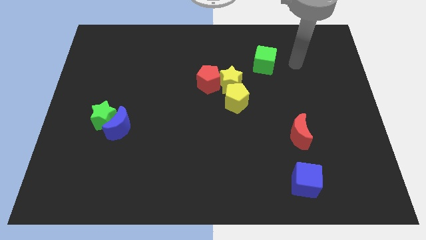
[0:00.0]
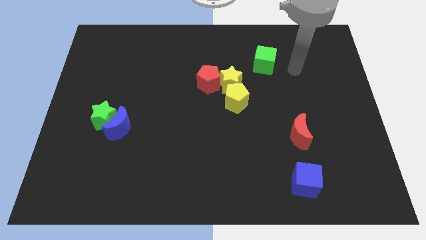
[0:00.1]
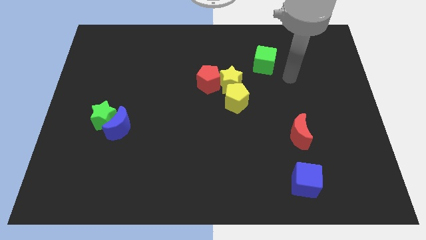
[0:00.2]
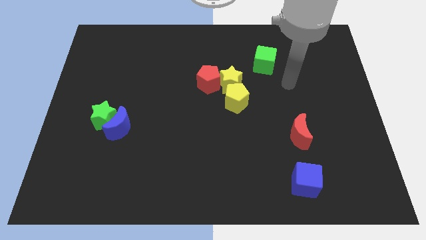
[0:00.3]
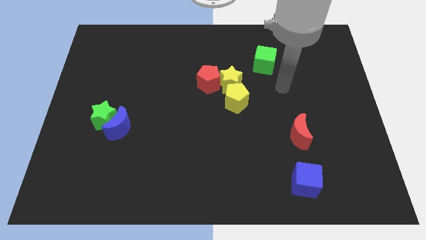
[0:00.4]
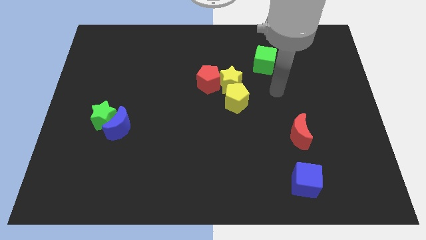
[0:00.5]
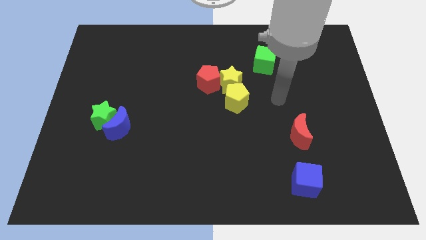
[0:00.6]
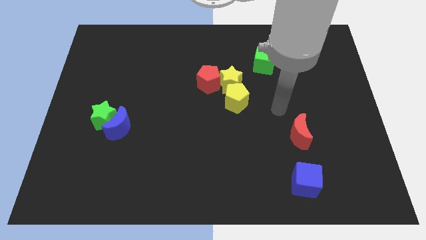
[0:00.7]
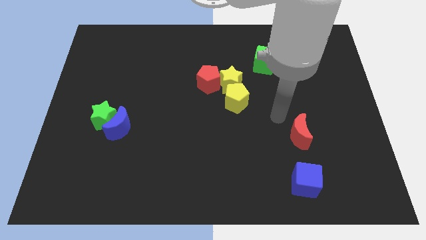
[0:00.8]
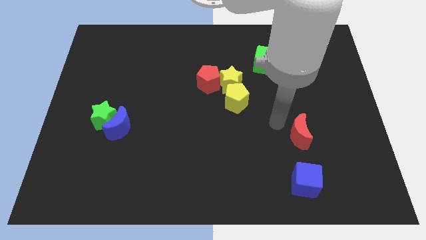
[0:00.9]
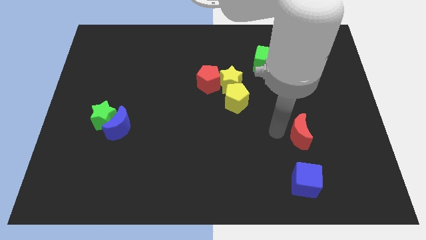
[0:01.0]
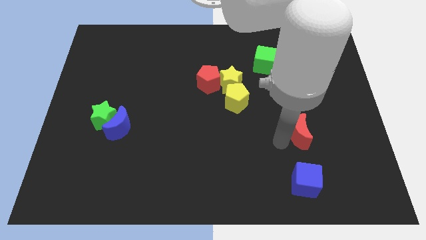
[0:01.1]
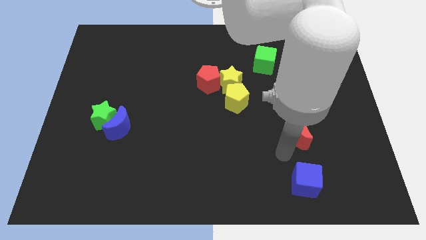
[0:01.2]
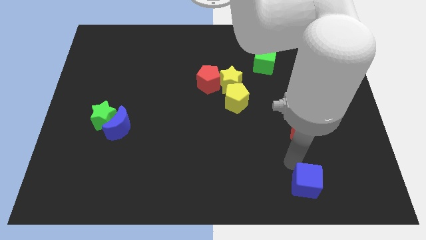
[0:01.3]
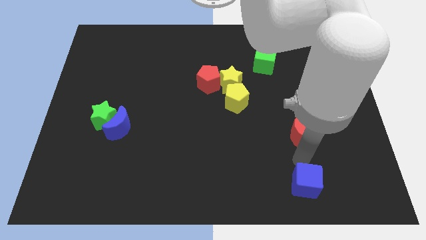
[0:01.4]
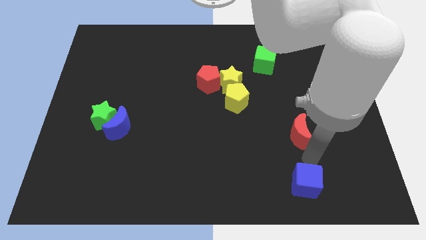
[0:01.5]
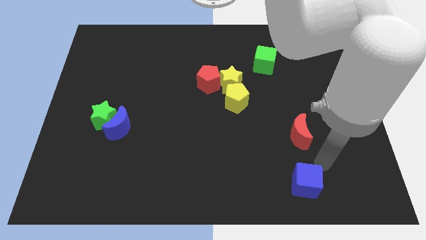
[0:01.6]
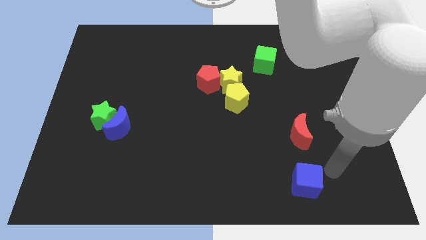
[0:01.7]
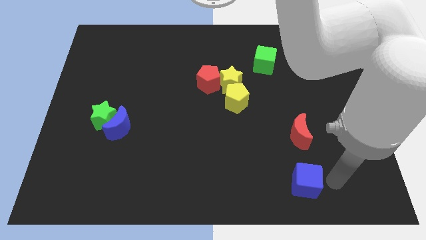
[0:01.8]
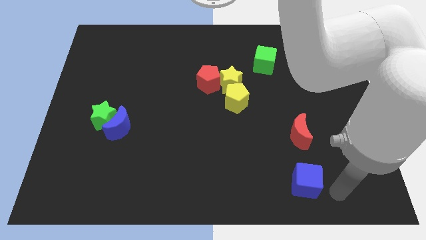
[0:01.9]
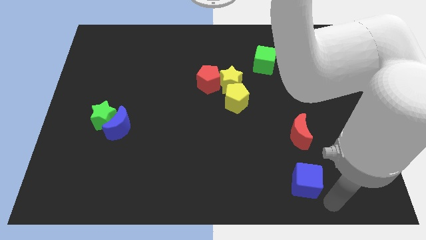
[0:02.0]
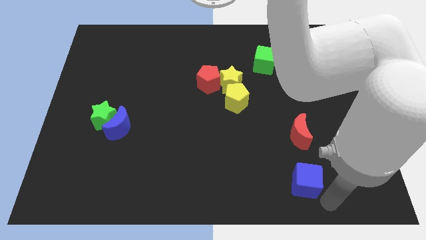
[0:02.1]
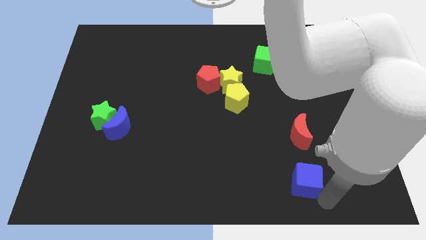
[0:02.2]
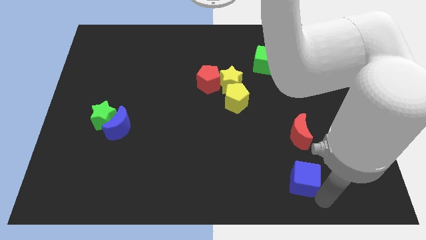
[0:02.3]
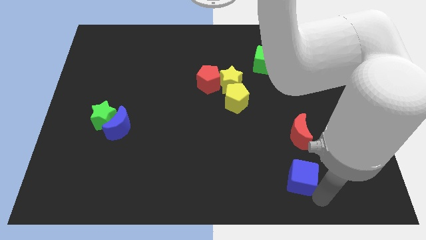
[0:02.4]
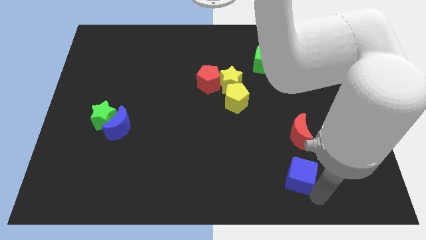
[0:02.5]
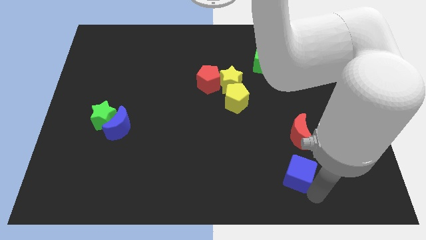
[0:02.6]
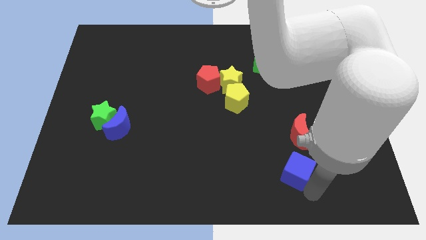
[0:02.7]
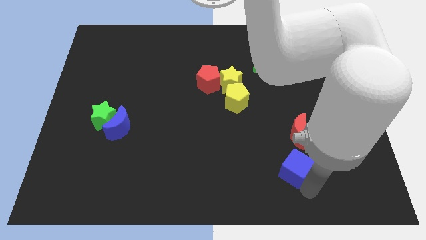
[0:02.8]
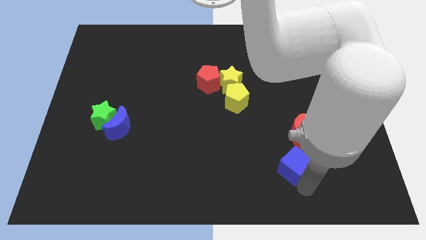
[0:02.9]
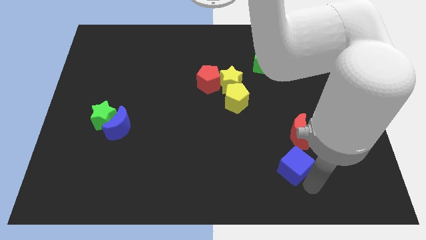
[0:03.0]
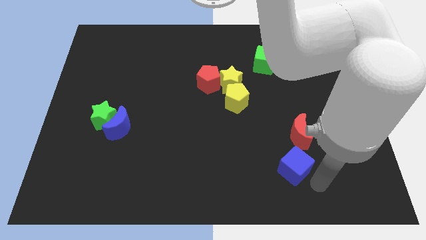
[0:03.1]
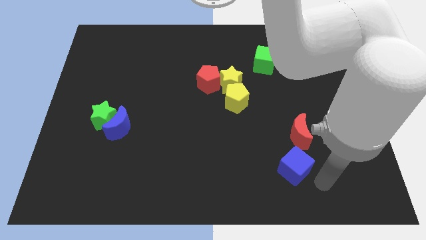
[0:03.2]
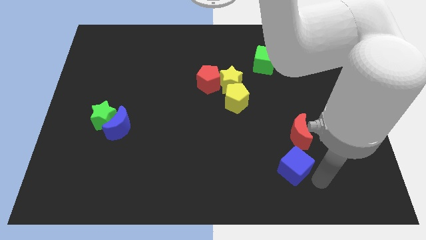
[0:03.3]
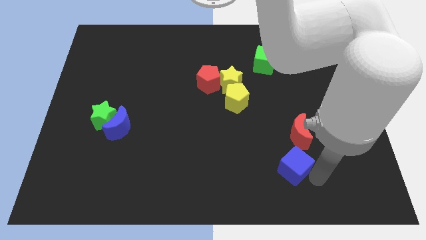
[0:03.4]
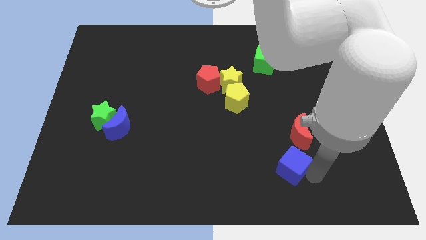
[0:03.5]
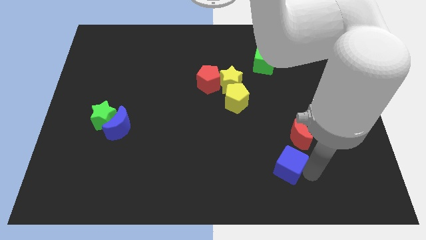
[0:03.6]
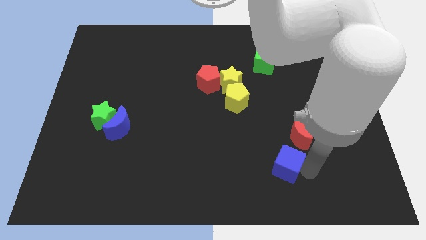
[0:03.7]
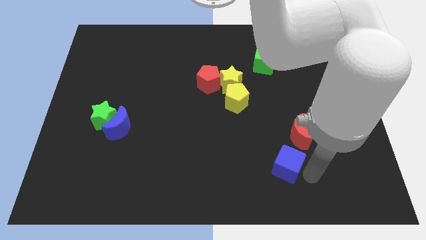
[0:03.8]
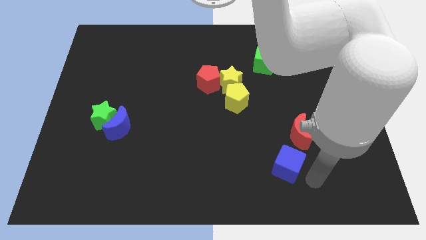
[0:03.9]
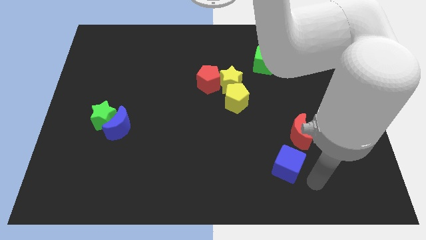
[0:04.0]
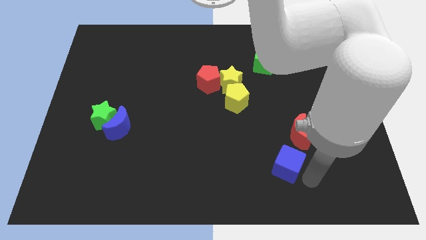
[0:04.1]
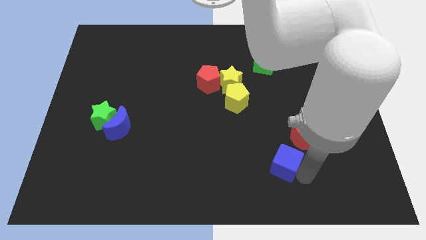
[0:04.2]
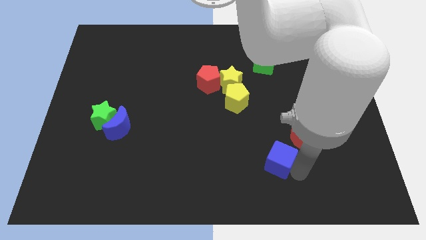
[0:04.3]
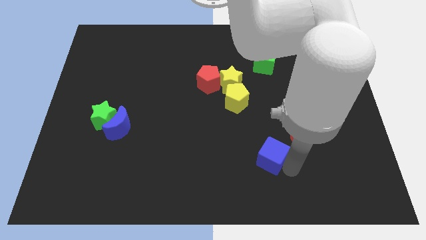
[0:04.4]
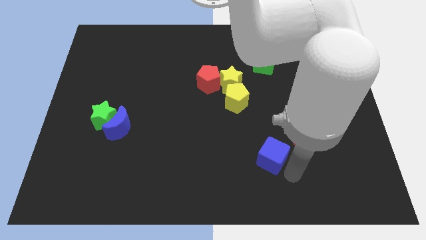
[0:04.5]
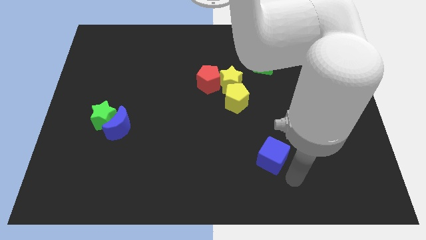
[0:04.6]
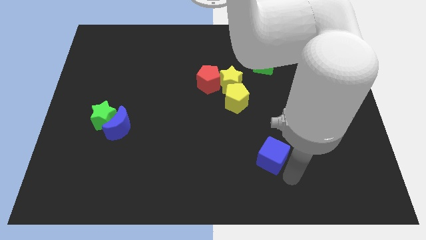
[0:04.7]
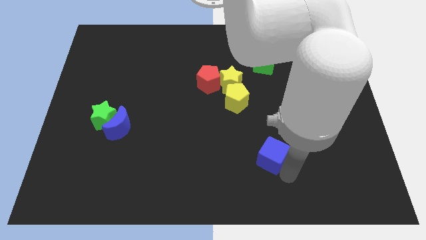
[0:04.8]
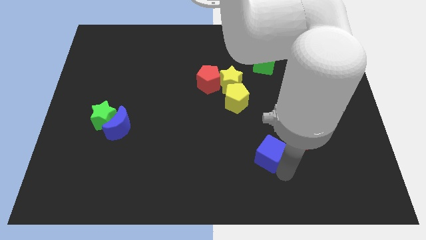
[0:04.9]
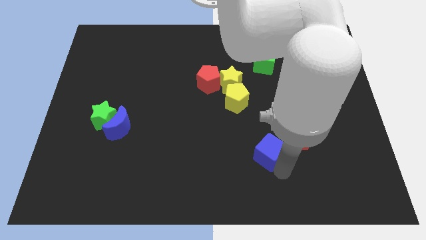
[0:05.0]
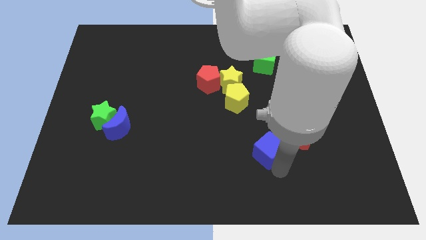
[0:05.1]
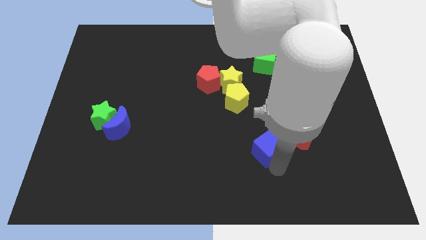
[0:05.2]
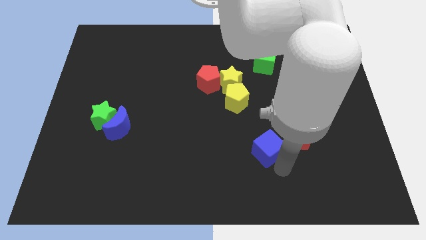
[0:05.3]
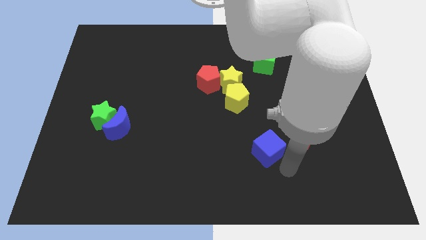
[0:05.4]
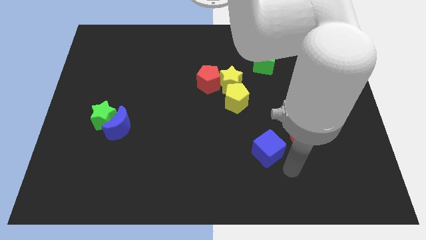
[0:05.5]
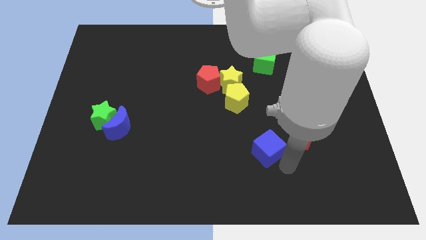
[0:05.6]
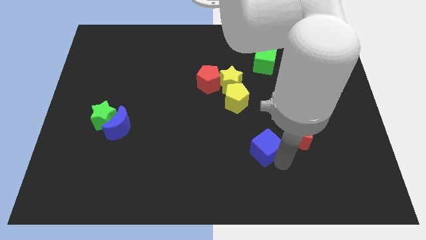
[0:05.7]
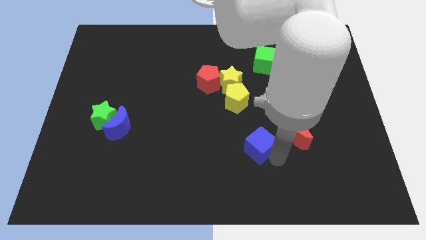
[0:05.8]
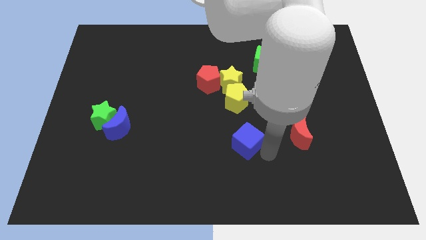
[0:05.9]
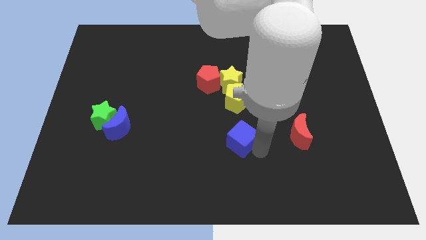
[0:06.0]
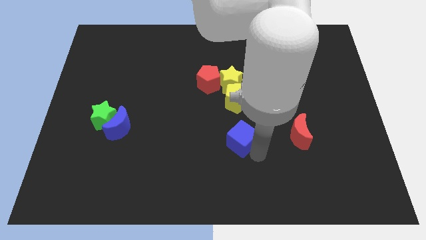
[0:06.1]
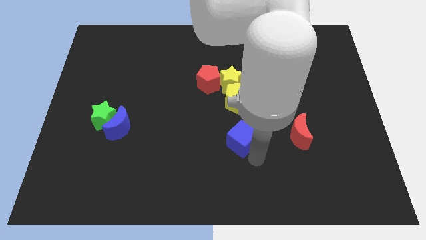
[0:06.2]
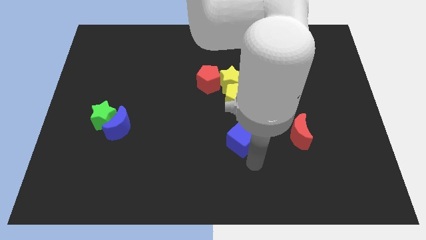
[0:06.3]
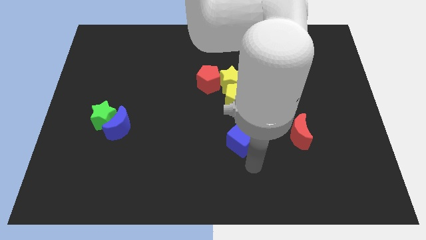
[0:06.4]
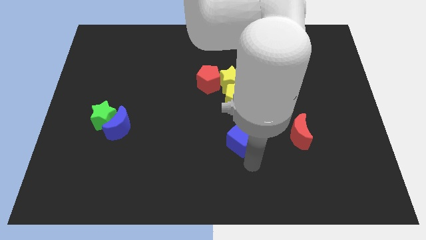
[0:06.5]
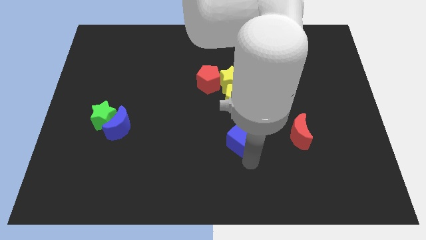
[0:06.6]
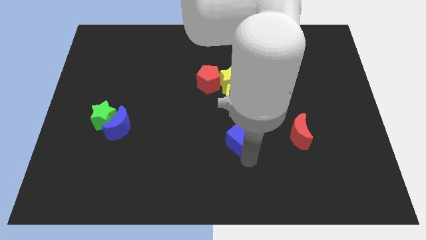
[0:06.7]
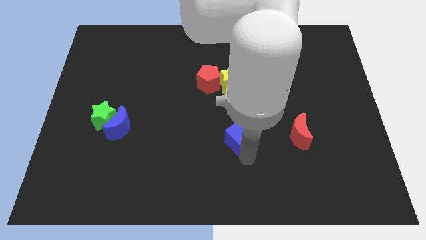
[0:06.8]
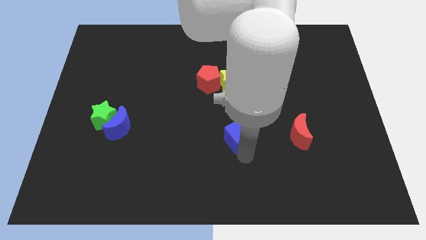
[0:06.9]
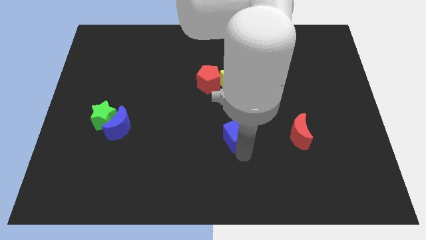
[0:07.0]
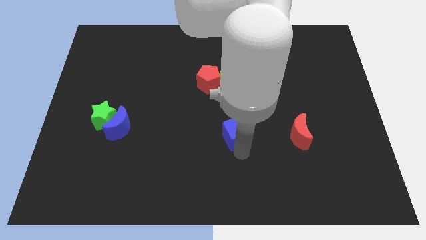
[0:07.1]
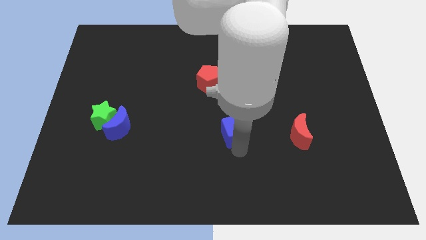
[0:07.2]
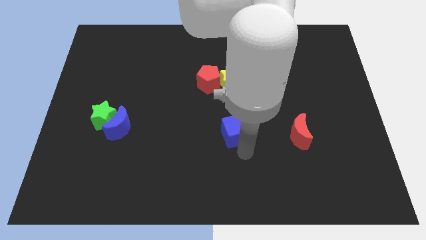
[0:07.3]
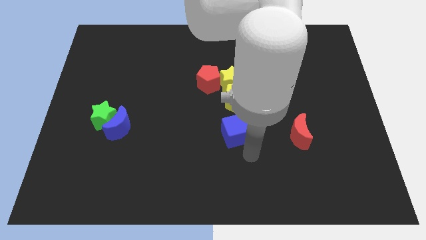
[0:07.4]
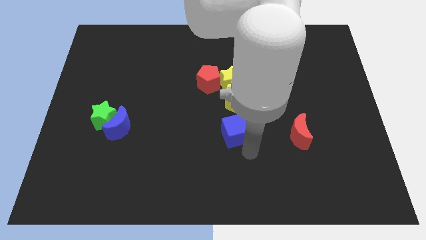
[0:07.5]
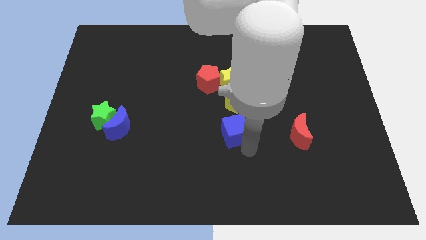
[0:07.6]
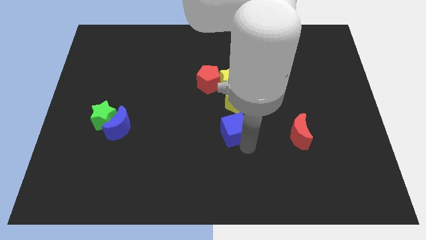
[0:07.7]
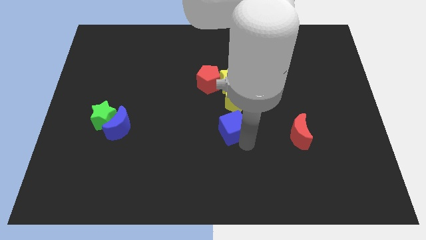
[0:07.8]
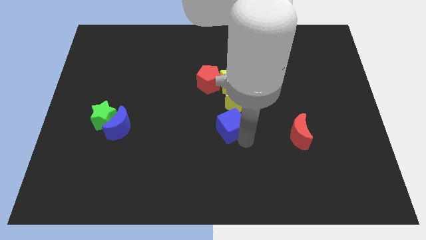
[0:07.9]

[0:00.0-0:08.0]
move the blue cube up and then to the left

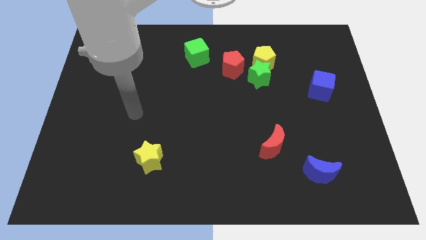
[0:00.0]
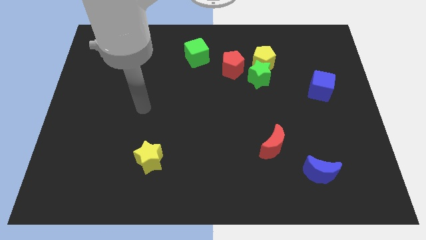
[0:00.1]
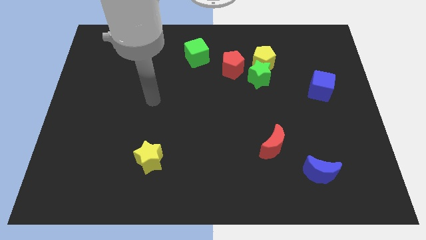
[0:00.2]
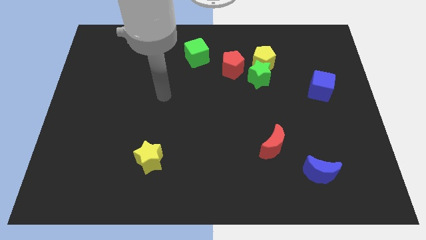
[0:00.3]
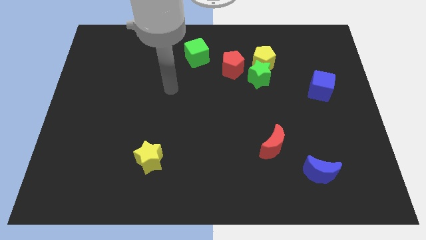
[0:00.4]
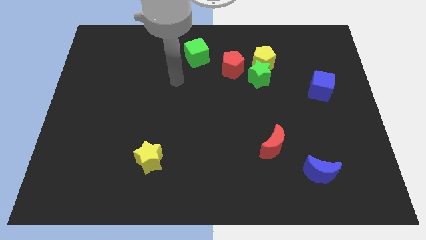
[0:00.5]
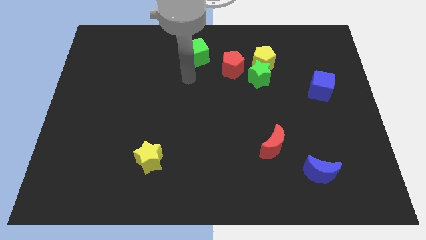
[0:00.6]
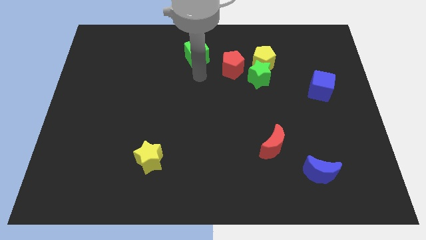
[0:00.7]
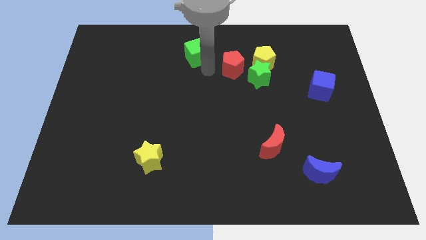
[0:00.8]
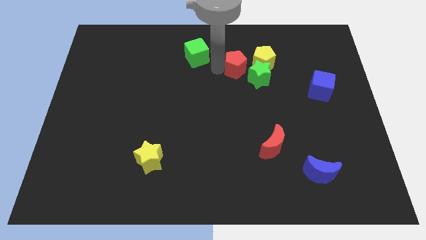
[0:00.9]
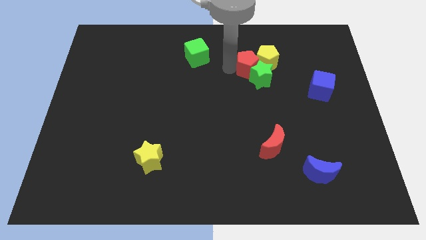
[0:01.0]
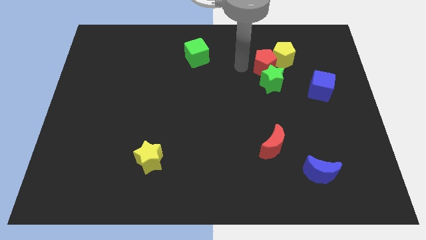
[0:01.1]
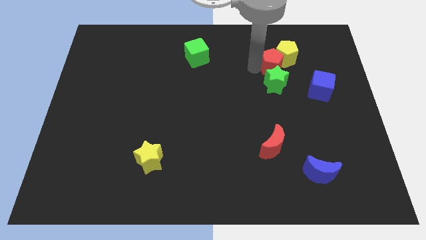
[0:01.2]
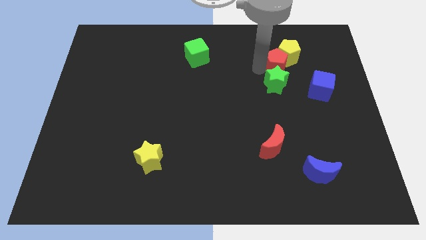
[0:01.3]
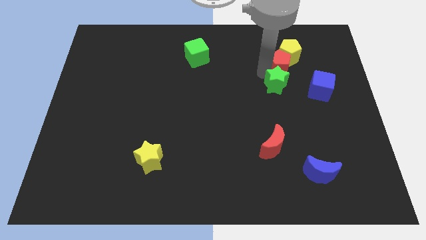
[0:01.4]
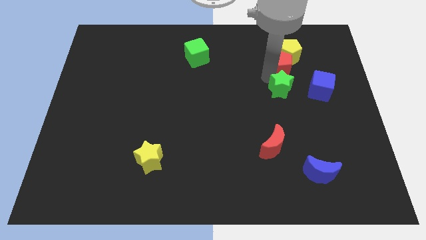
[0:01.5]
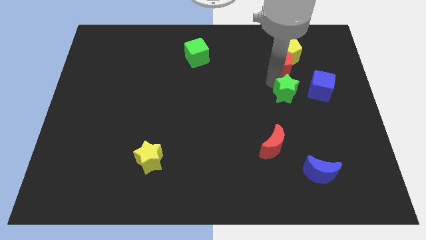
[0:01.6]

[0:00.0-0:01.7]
slightly move the green star down and then to the right
